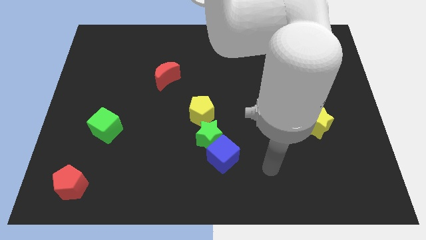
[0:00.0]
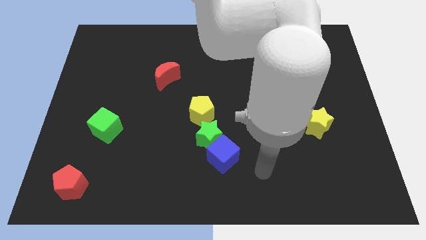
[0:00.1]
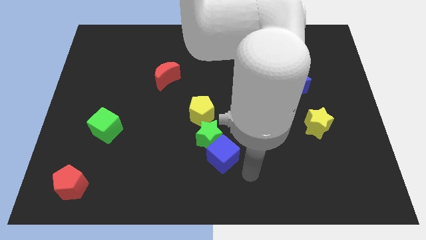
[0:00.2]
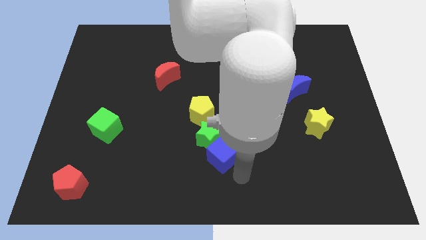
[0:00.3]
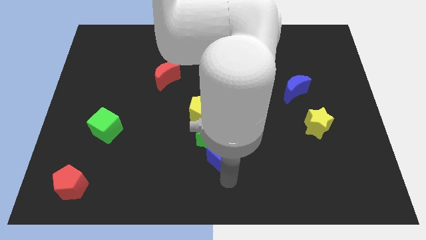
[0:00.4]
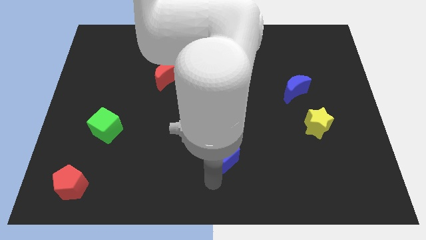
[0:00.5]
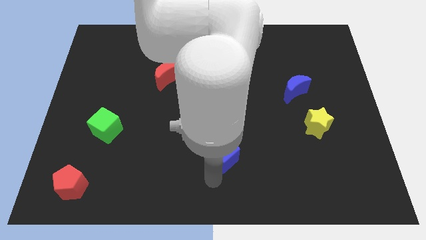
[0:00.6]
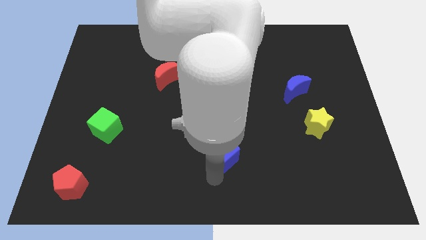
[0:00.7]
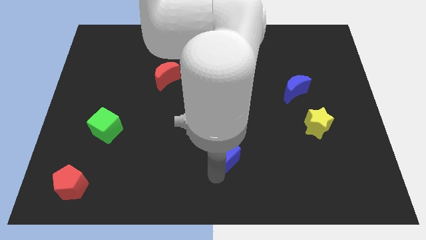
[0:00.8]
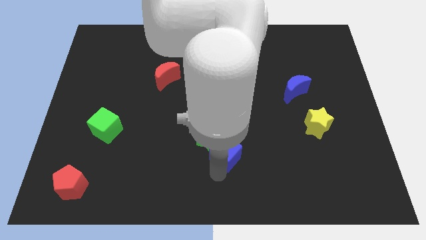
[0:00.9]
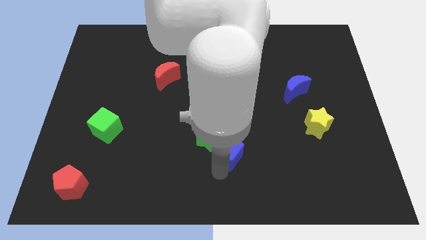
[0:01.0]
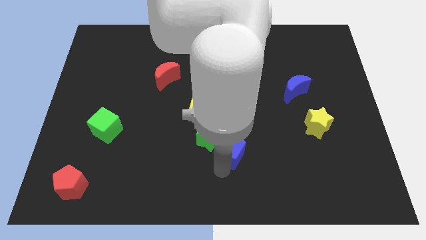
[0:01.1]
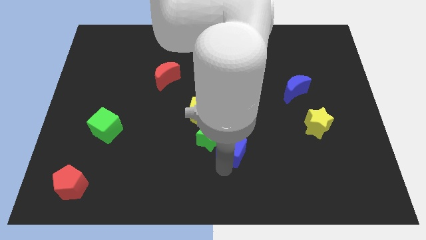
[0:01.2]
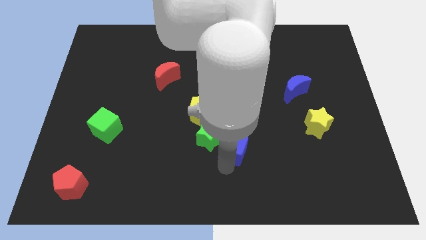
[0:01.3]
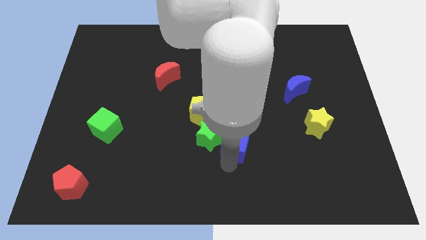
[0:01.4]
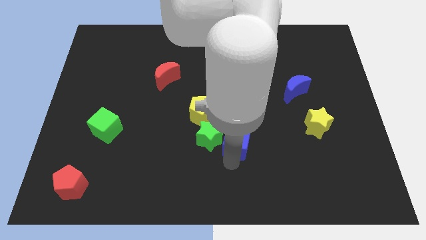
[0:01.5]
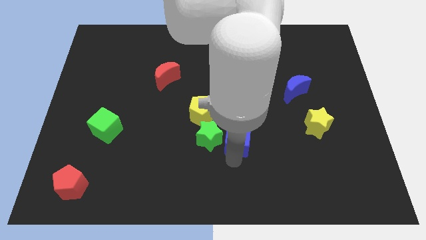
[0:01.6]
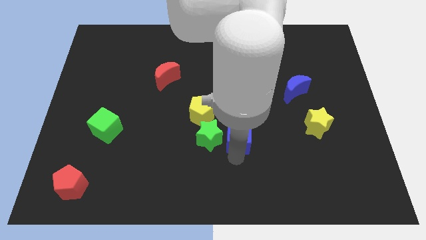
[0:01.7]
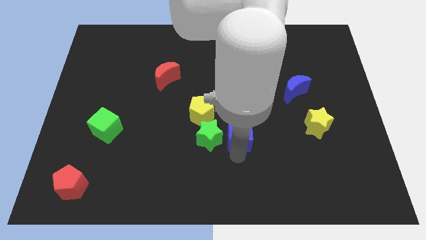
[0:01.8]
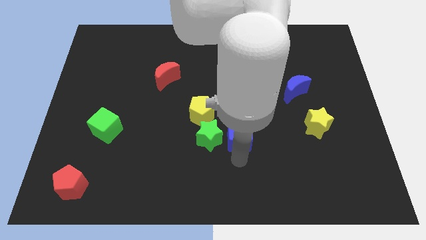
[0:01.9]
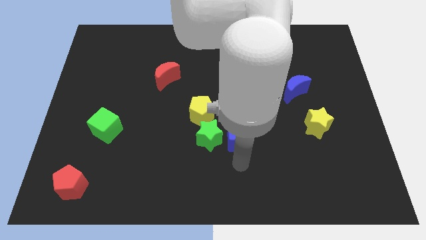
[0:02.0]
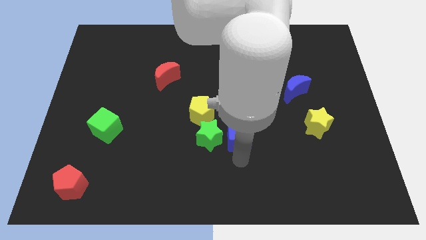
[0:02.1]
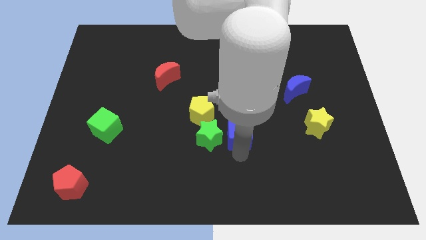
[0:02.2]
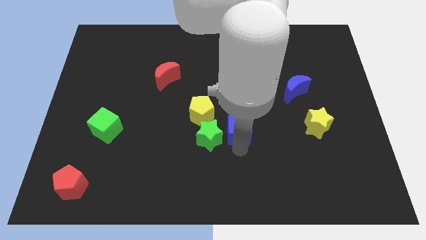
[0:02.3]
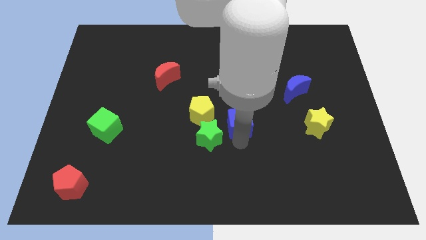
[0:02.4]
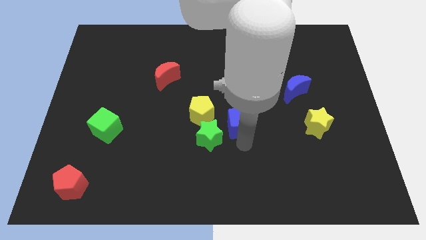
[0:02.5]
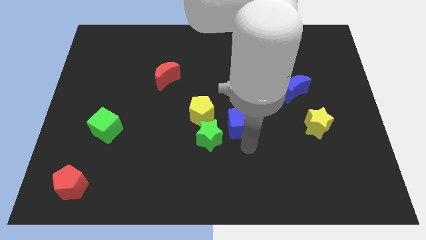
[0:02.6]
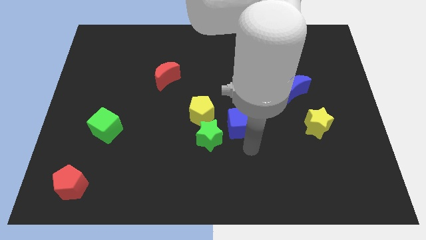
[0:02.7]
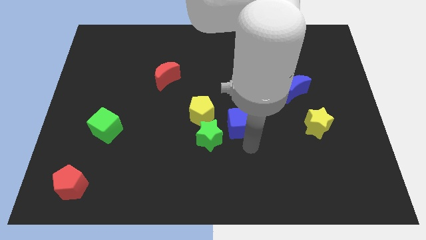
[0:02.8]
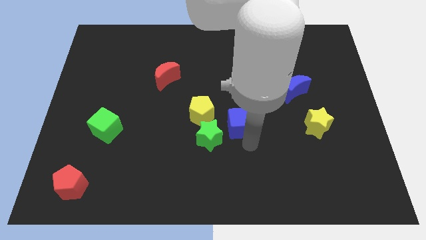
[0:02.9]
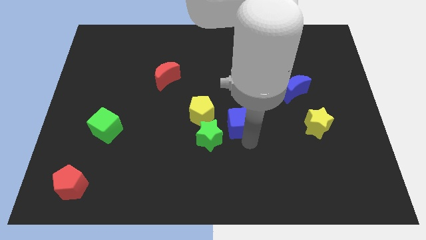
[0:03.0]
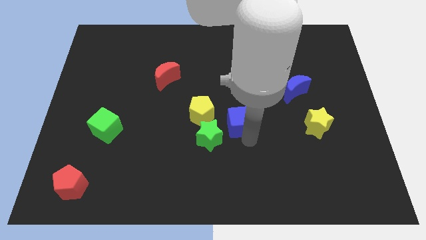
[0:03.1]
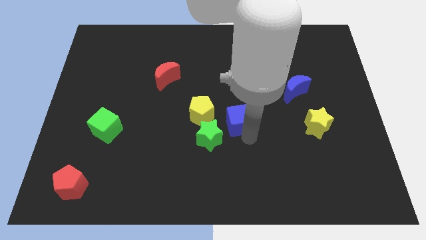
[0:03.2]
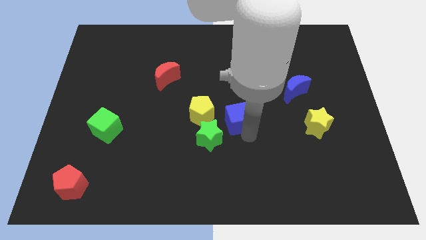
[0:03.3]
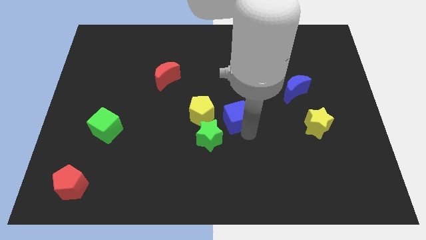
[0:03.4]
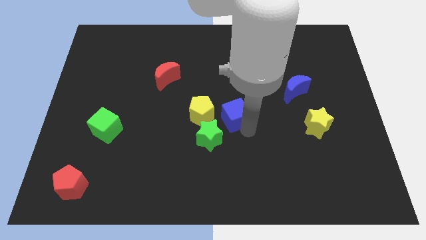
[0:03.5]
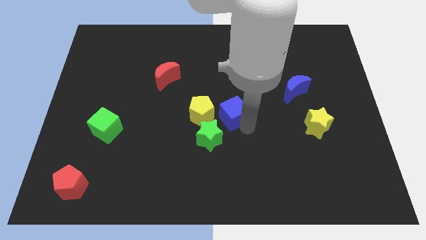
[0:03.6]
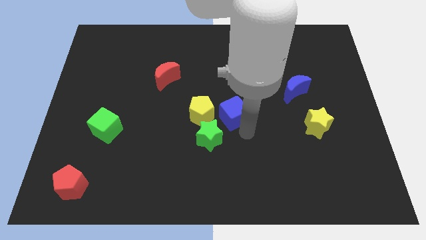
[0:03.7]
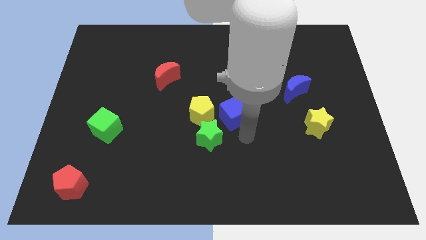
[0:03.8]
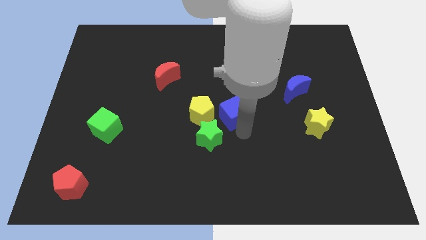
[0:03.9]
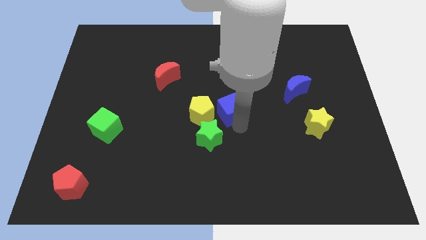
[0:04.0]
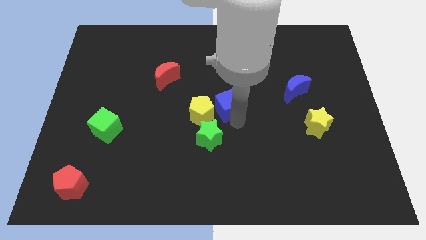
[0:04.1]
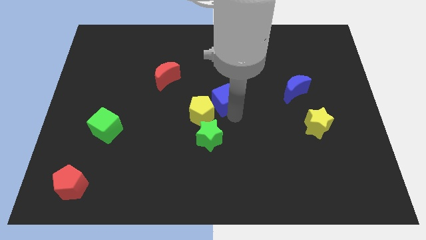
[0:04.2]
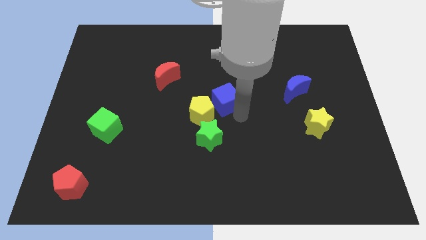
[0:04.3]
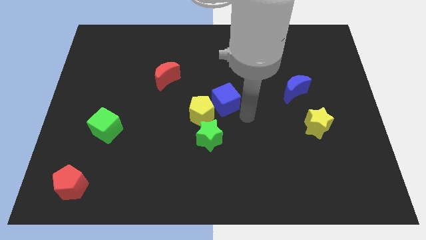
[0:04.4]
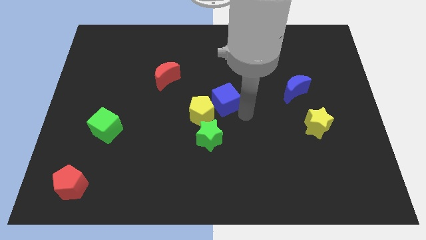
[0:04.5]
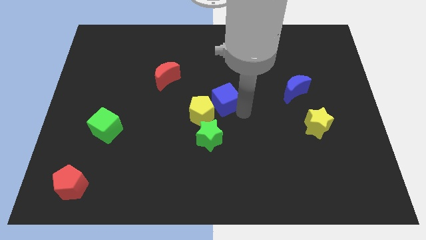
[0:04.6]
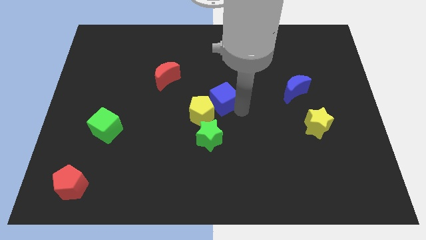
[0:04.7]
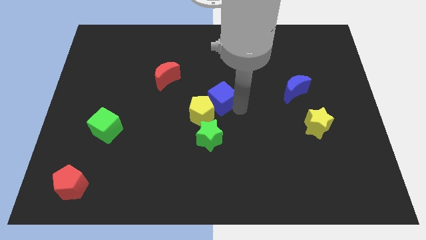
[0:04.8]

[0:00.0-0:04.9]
put the blue cube to the top side of the yellow pentagon

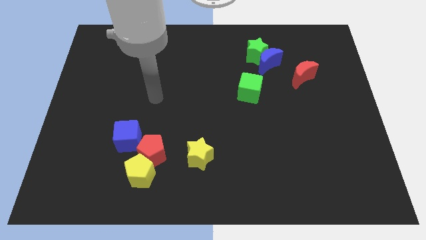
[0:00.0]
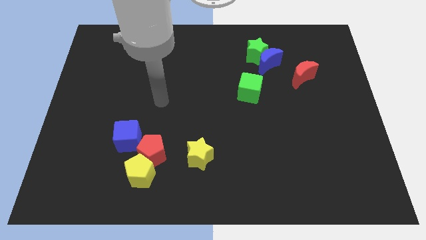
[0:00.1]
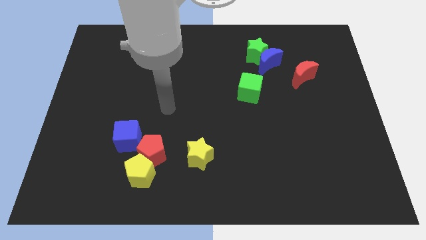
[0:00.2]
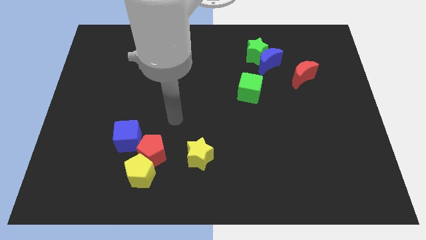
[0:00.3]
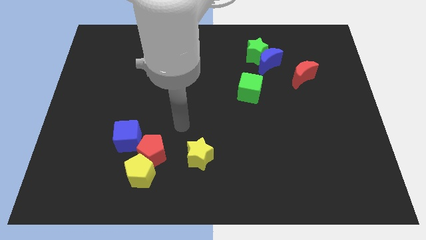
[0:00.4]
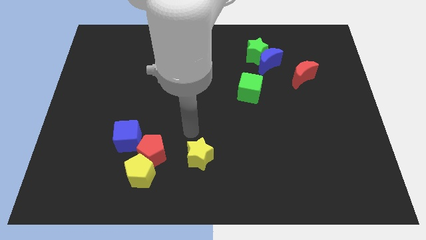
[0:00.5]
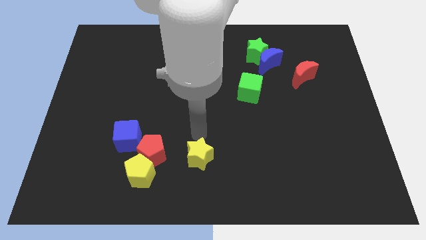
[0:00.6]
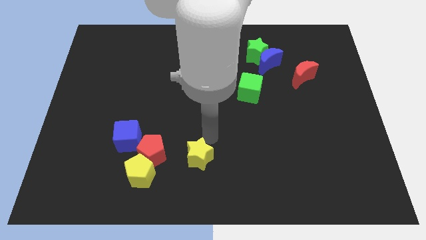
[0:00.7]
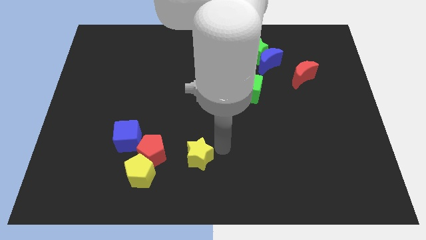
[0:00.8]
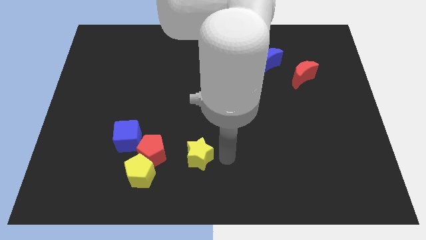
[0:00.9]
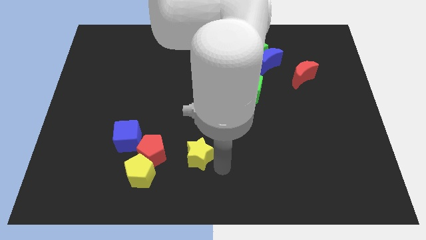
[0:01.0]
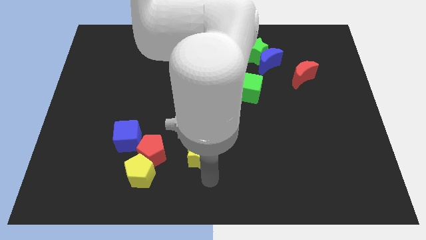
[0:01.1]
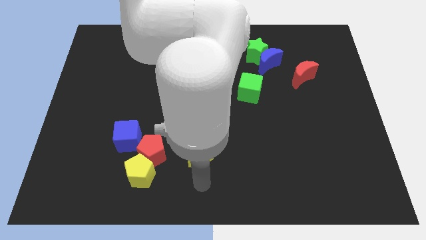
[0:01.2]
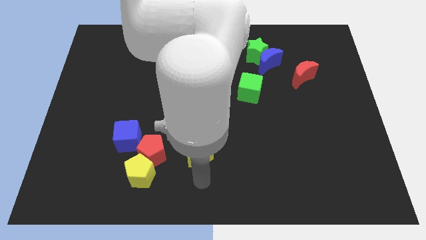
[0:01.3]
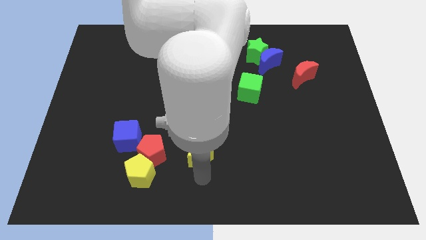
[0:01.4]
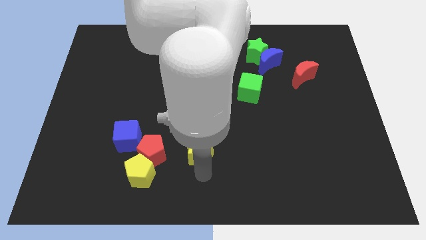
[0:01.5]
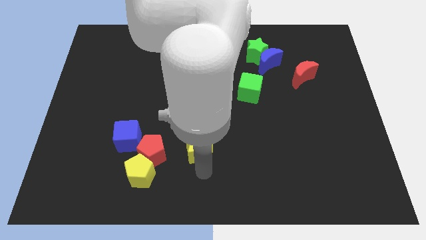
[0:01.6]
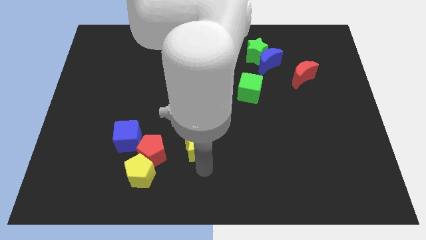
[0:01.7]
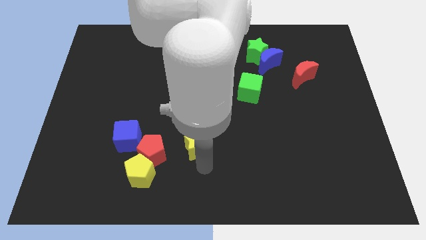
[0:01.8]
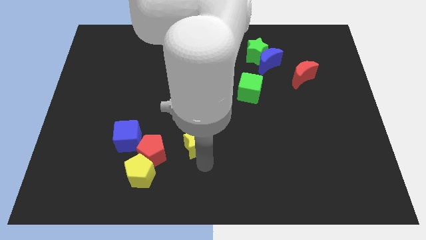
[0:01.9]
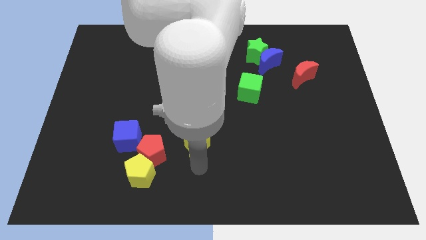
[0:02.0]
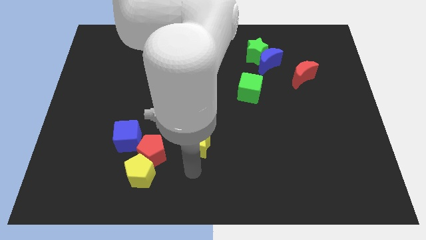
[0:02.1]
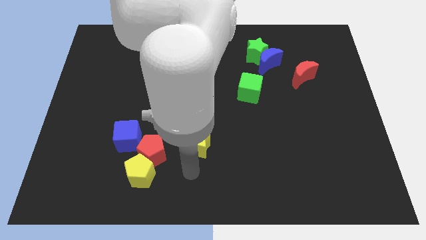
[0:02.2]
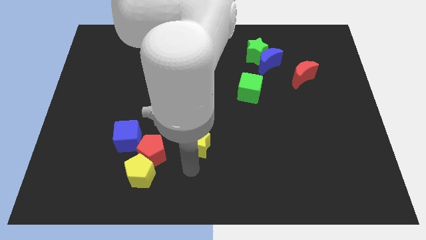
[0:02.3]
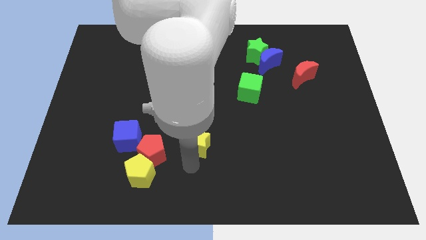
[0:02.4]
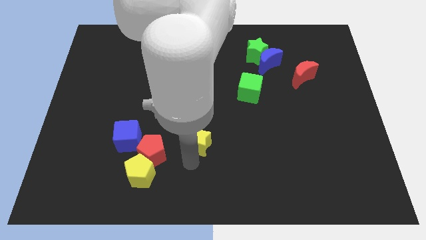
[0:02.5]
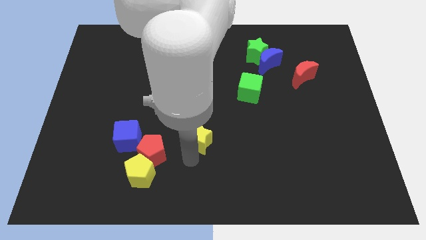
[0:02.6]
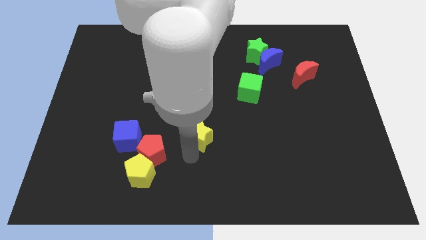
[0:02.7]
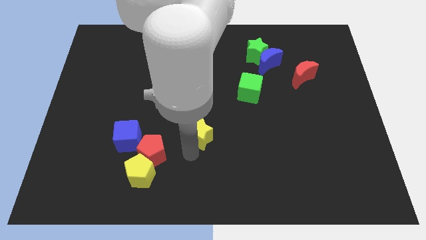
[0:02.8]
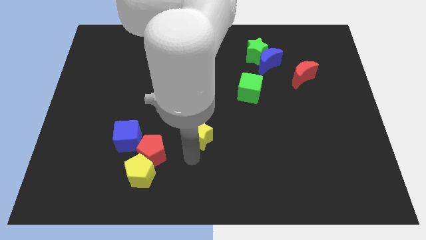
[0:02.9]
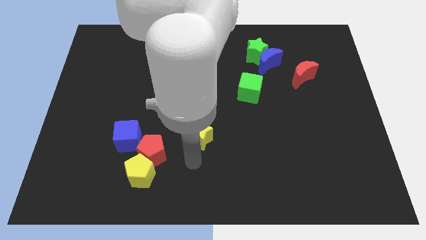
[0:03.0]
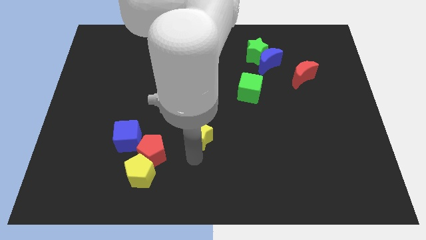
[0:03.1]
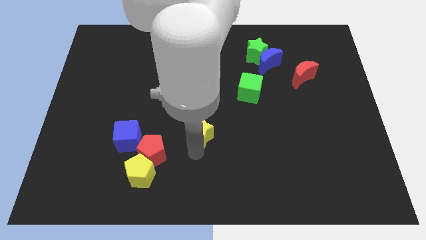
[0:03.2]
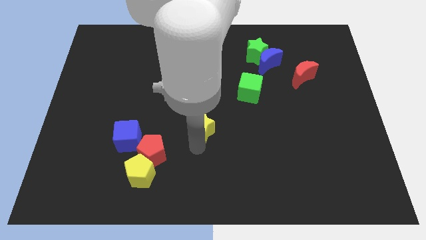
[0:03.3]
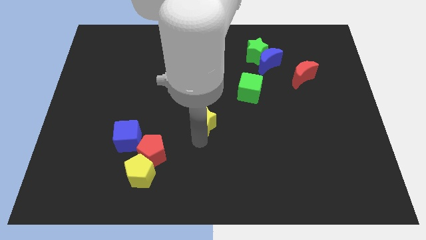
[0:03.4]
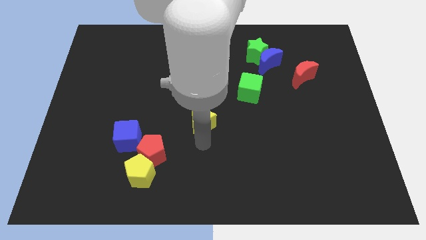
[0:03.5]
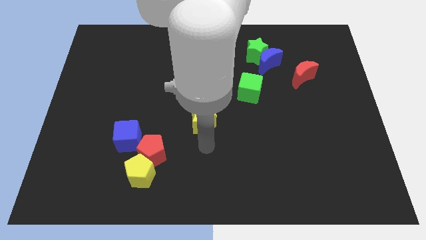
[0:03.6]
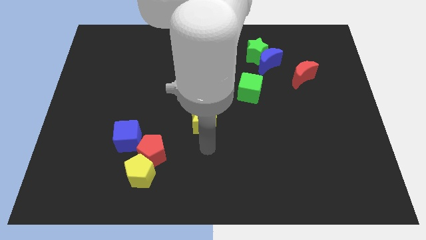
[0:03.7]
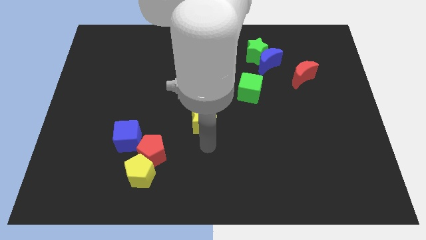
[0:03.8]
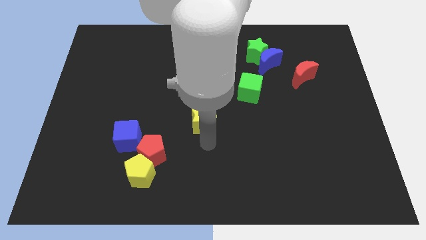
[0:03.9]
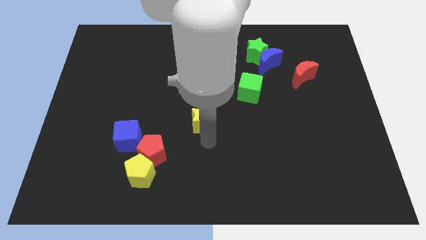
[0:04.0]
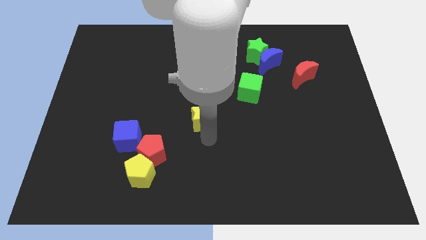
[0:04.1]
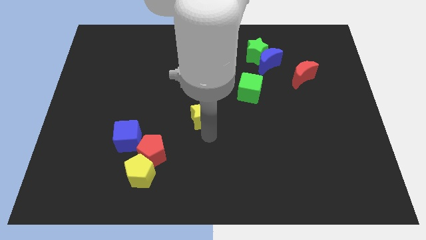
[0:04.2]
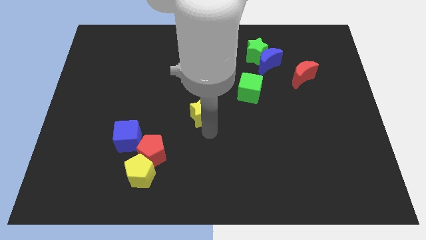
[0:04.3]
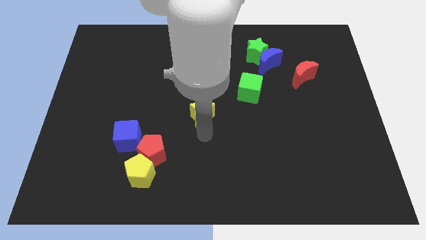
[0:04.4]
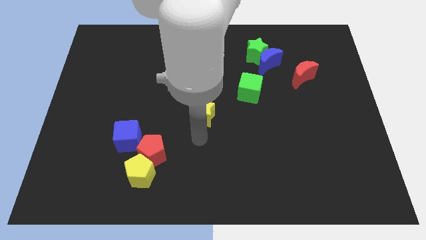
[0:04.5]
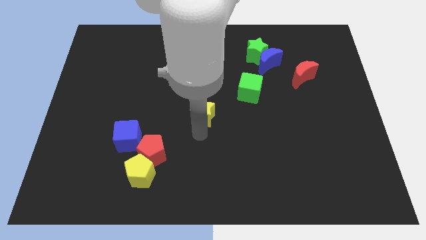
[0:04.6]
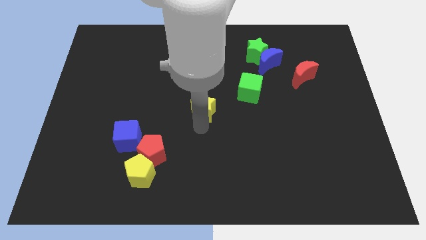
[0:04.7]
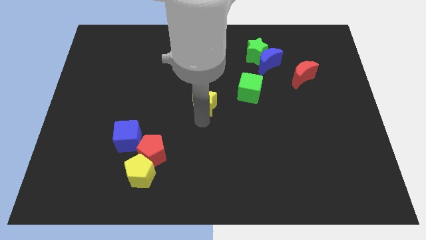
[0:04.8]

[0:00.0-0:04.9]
slide the yellow star left of the green cube
